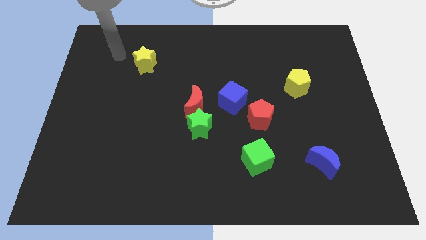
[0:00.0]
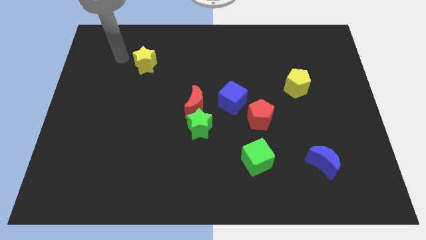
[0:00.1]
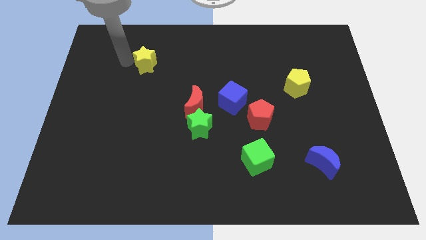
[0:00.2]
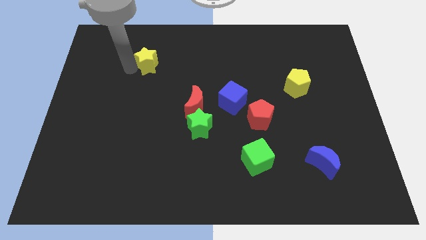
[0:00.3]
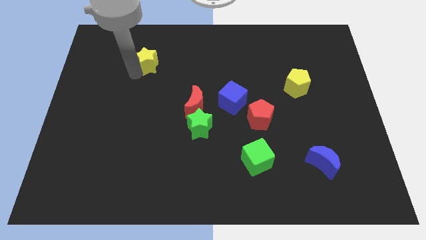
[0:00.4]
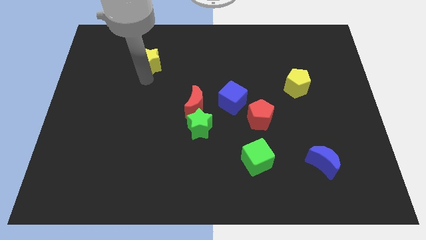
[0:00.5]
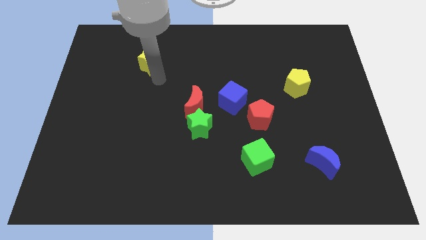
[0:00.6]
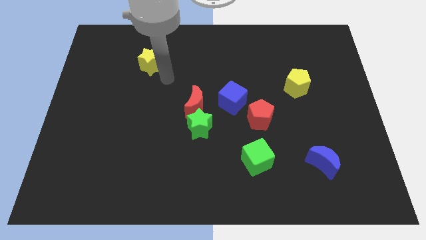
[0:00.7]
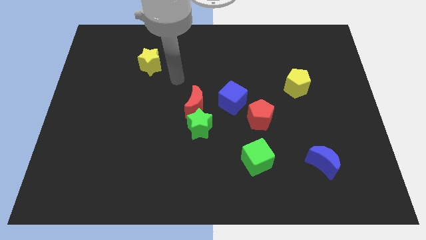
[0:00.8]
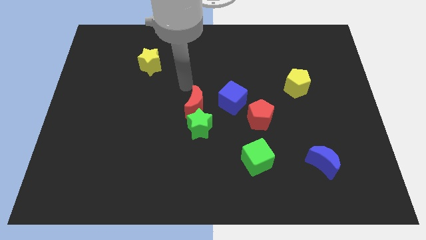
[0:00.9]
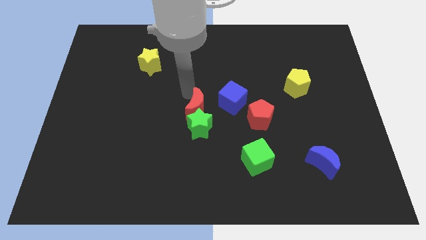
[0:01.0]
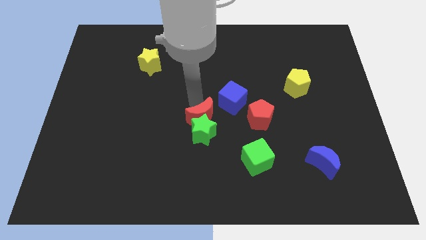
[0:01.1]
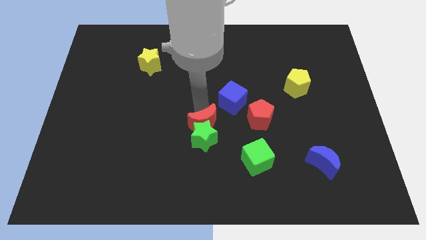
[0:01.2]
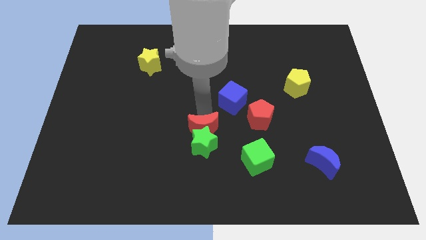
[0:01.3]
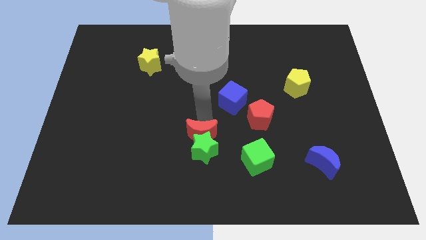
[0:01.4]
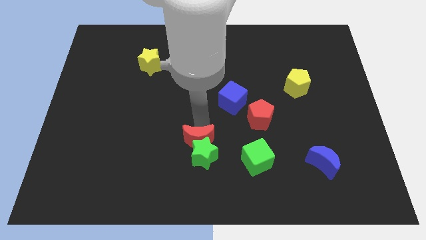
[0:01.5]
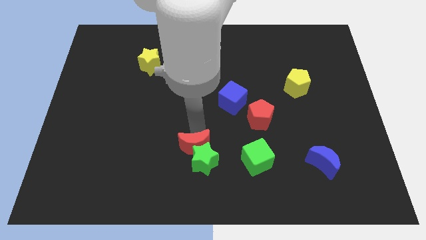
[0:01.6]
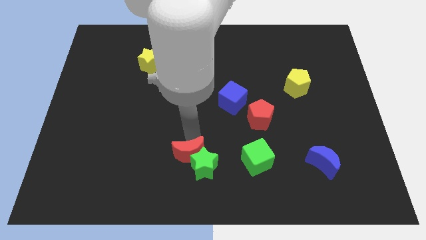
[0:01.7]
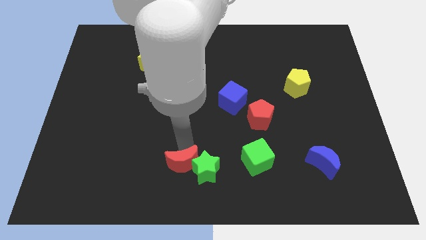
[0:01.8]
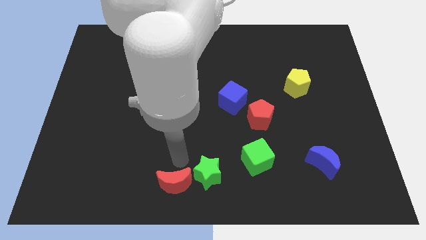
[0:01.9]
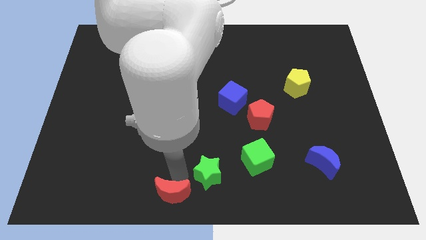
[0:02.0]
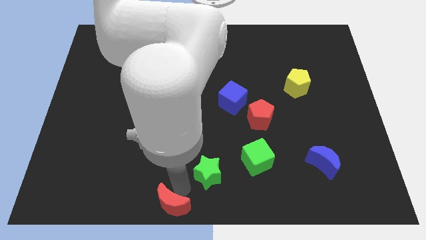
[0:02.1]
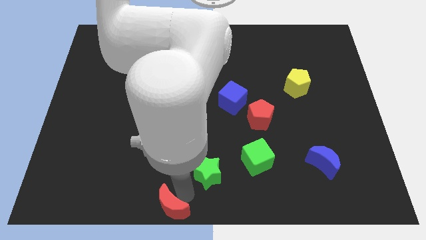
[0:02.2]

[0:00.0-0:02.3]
separate the green star from the red moon

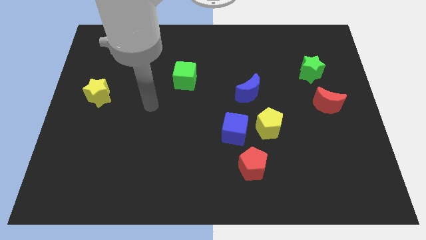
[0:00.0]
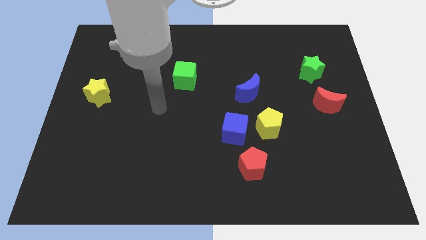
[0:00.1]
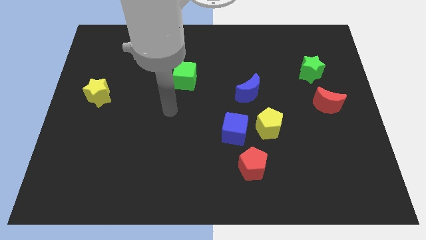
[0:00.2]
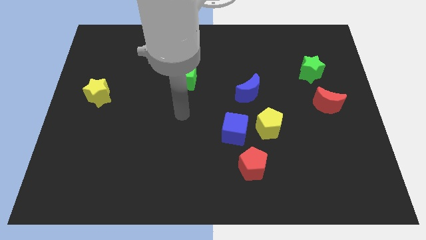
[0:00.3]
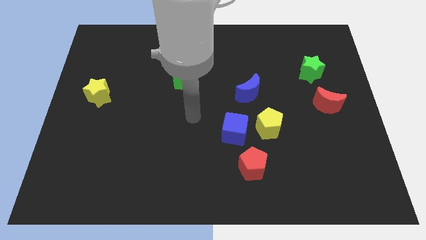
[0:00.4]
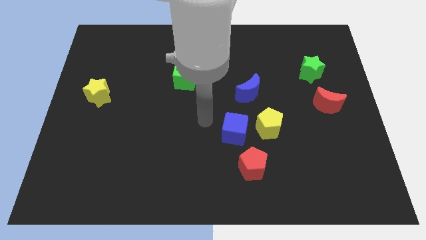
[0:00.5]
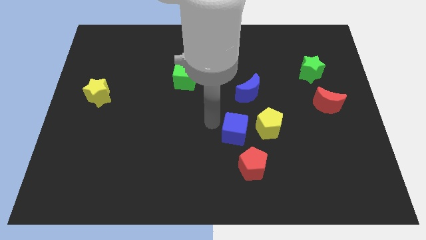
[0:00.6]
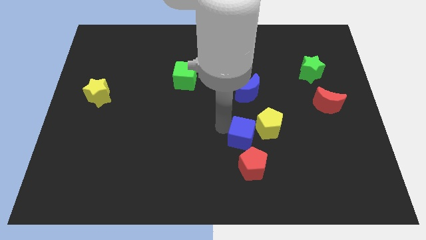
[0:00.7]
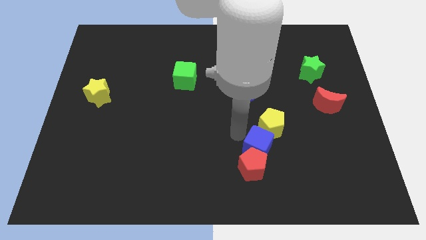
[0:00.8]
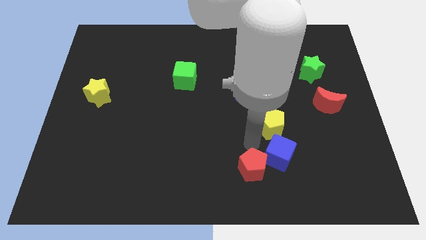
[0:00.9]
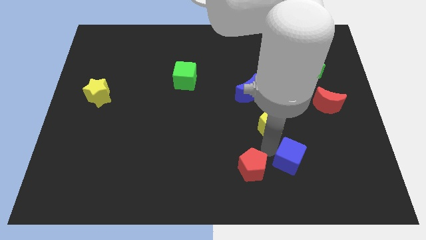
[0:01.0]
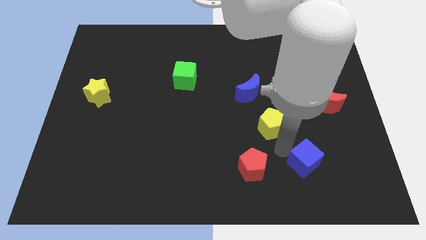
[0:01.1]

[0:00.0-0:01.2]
separate the yellow pentagon from the blue cube

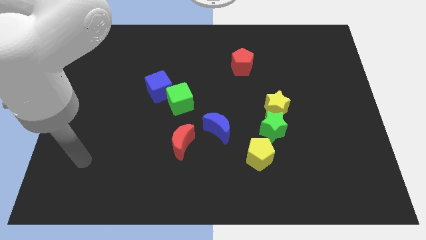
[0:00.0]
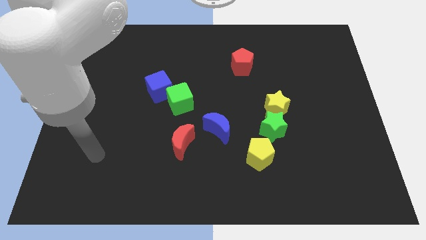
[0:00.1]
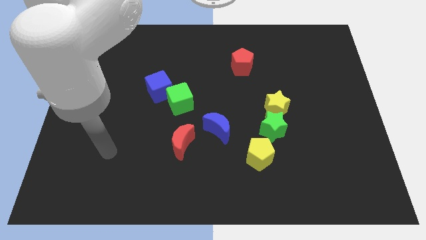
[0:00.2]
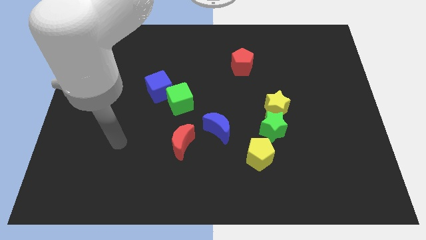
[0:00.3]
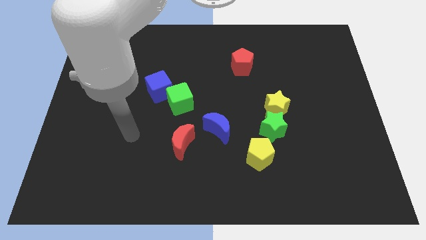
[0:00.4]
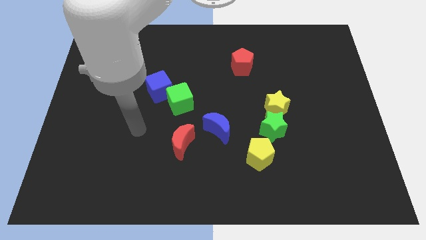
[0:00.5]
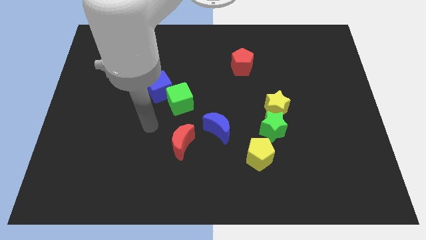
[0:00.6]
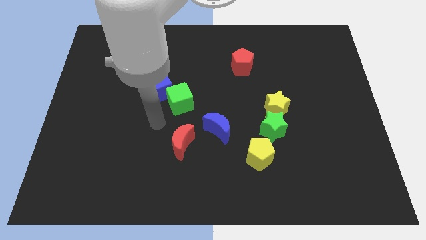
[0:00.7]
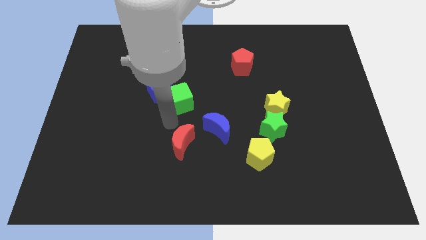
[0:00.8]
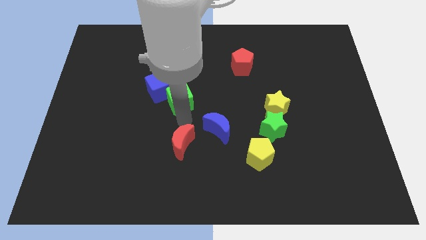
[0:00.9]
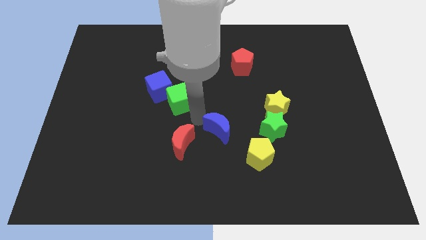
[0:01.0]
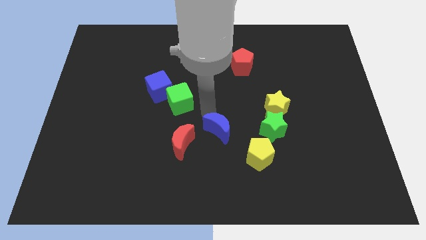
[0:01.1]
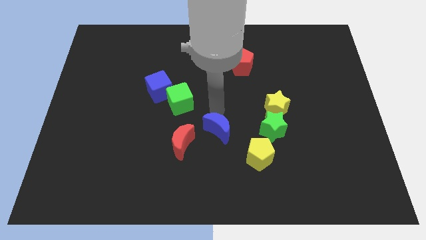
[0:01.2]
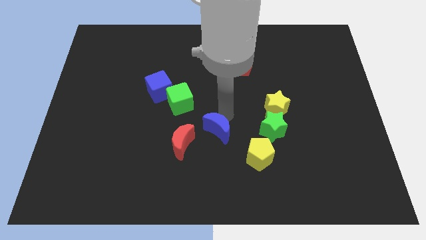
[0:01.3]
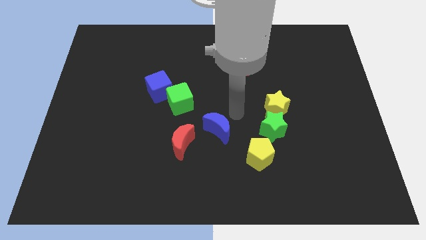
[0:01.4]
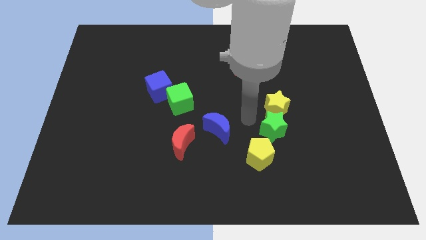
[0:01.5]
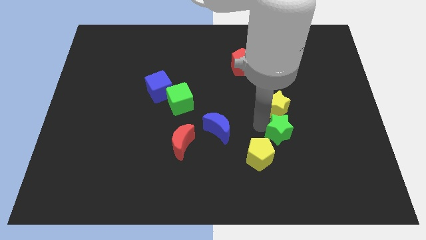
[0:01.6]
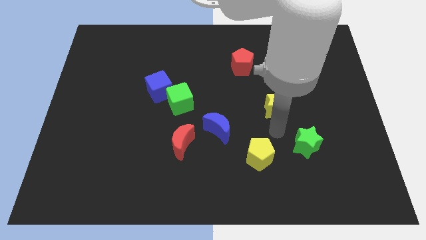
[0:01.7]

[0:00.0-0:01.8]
separate the yellow star from the green star

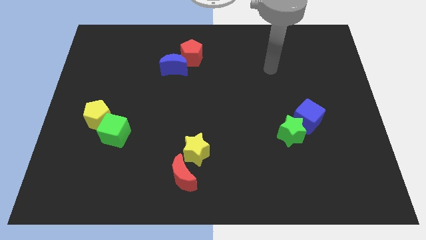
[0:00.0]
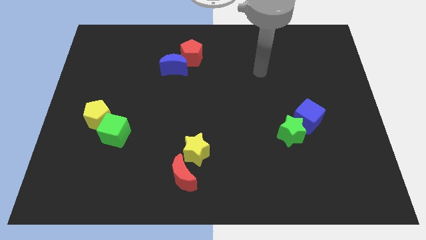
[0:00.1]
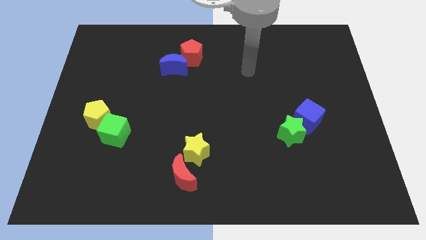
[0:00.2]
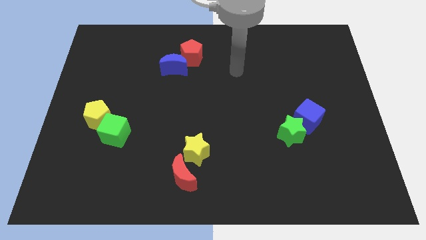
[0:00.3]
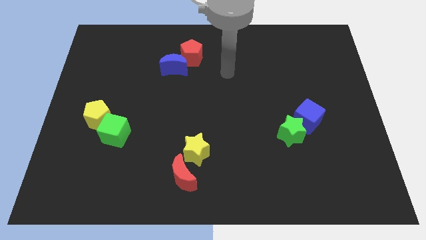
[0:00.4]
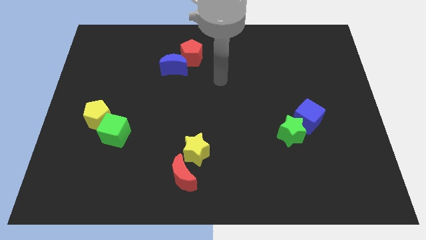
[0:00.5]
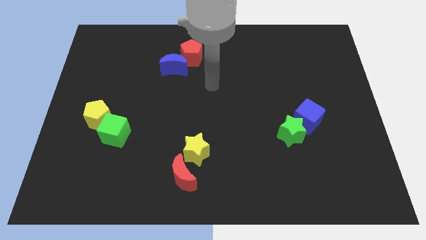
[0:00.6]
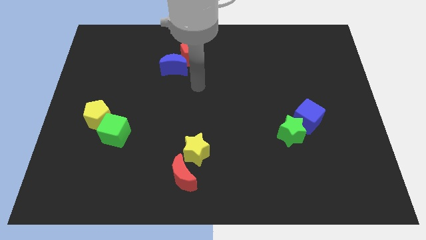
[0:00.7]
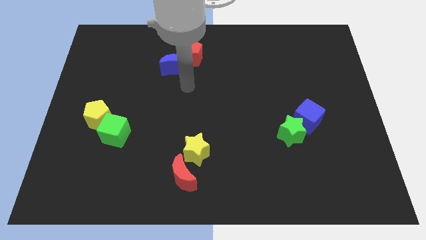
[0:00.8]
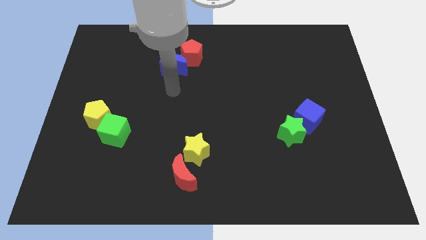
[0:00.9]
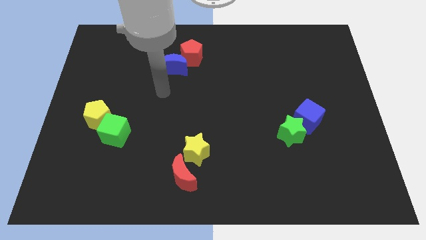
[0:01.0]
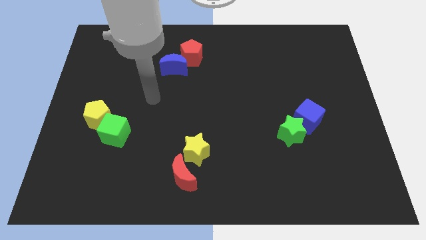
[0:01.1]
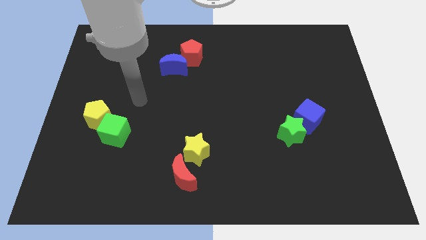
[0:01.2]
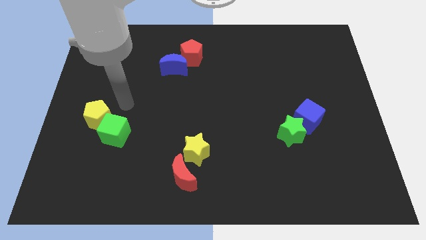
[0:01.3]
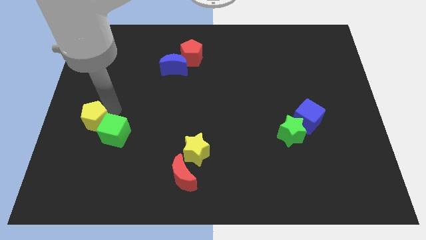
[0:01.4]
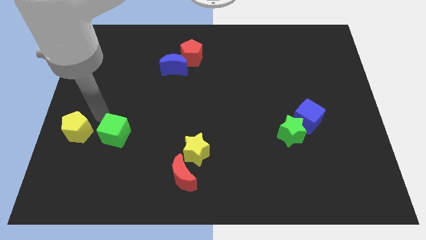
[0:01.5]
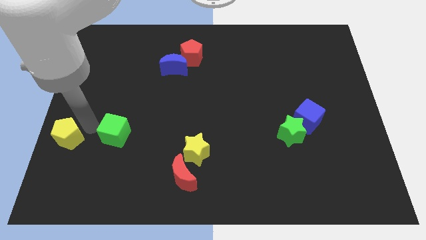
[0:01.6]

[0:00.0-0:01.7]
pull the green cube apart from the yellow pentagon

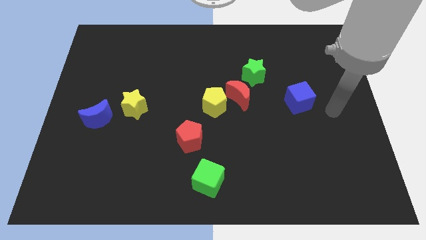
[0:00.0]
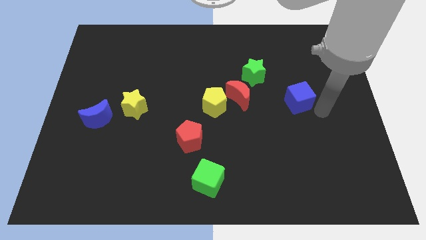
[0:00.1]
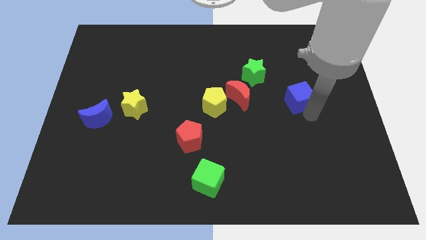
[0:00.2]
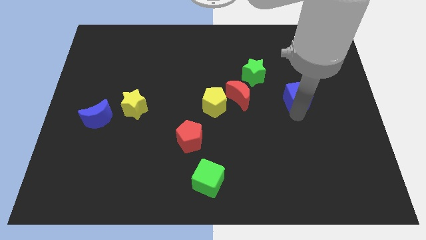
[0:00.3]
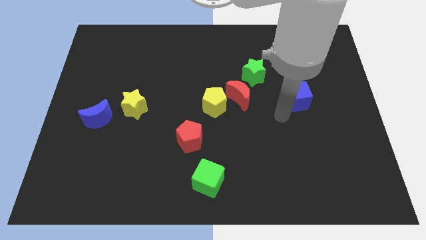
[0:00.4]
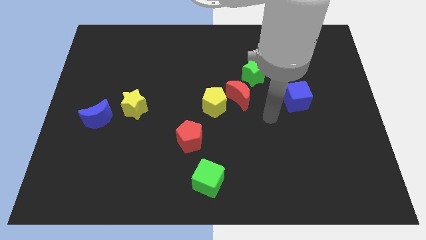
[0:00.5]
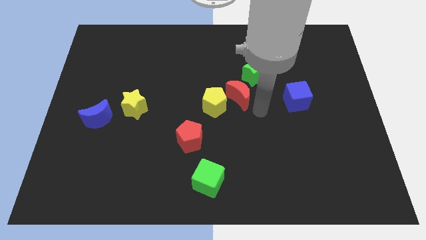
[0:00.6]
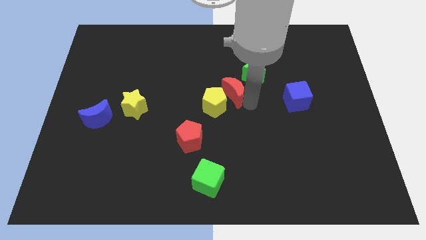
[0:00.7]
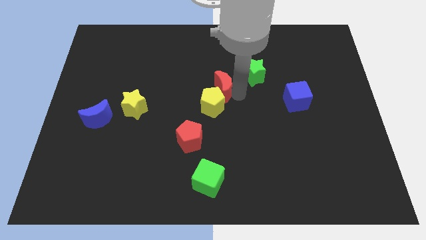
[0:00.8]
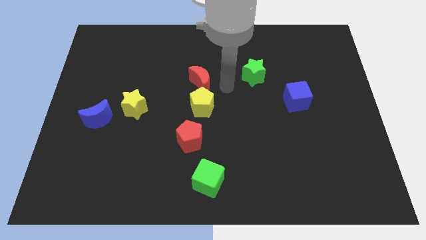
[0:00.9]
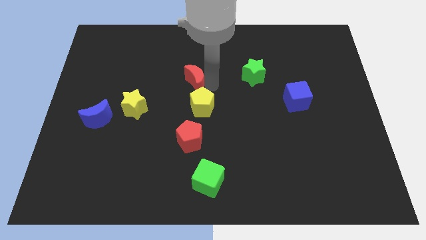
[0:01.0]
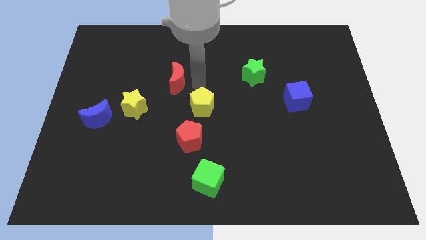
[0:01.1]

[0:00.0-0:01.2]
pull the yellow pentagon apart from the red moon

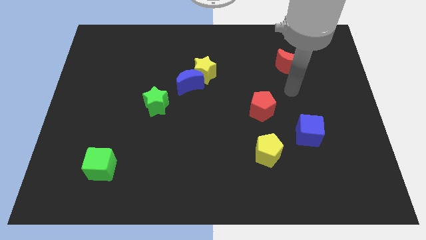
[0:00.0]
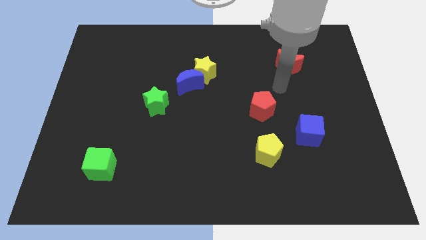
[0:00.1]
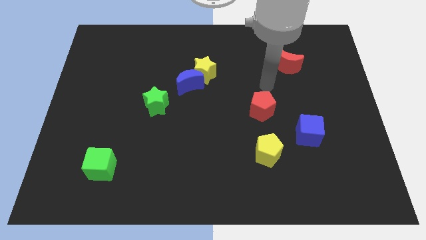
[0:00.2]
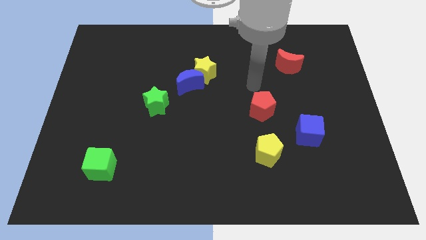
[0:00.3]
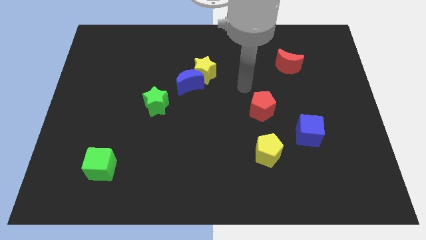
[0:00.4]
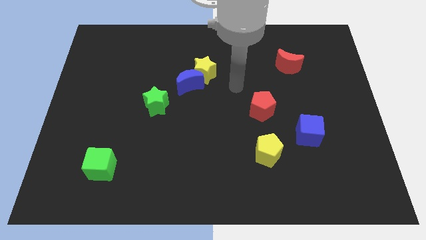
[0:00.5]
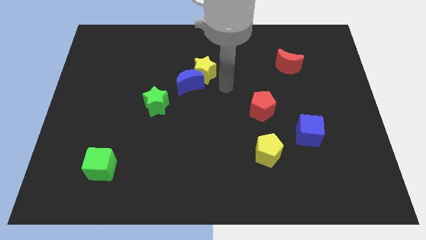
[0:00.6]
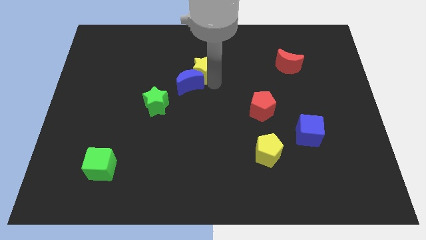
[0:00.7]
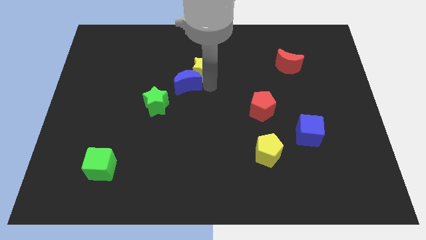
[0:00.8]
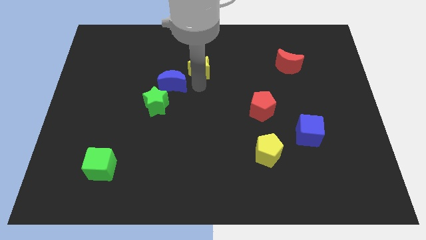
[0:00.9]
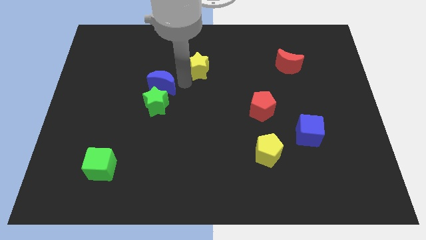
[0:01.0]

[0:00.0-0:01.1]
separate the yellow star from the blue moon
